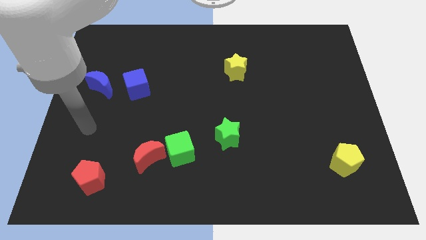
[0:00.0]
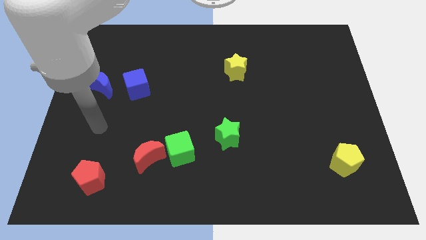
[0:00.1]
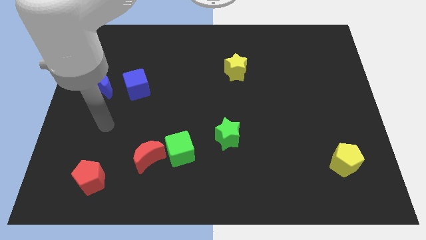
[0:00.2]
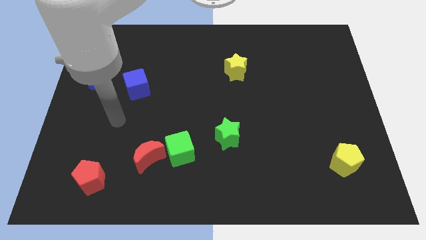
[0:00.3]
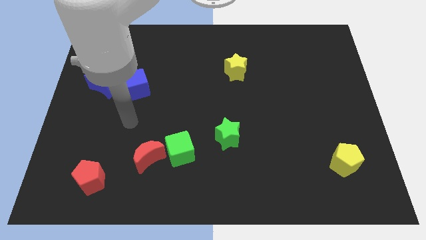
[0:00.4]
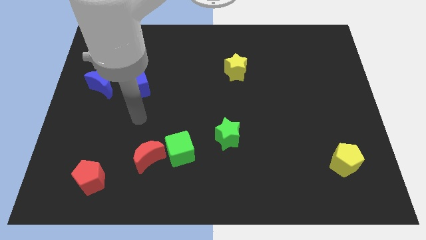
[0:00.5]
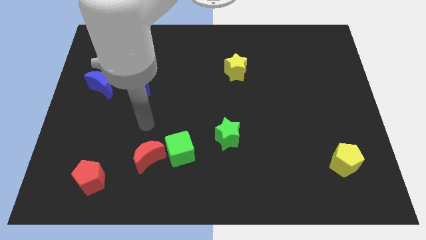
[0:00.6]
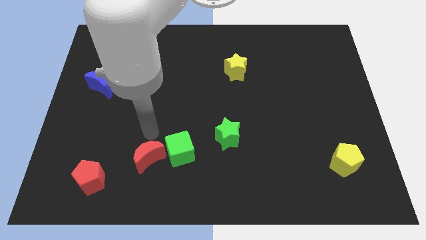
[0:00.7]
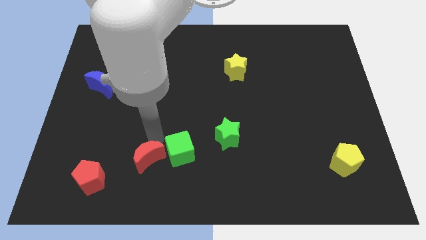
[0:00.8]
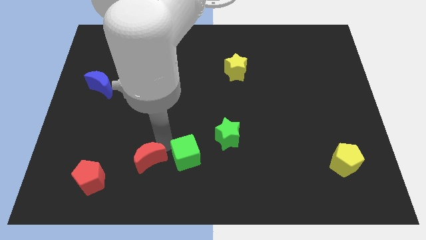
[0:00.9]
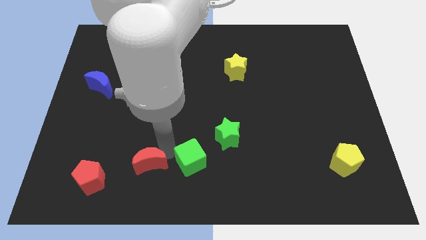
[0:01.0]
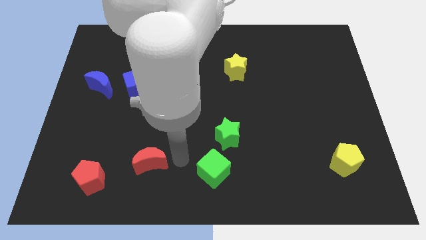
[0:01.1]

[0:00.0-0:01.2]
move the red moon away from the green cube

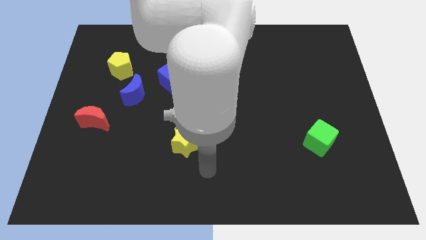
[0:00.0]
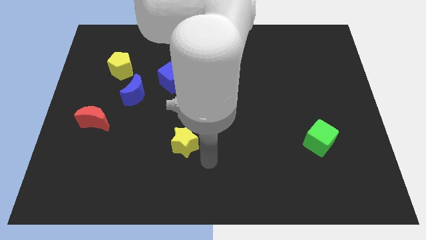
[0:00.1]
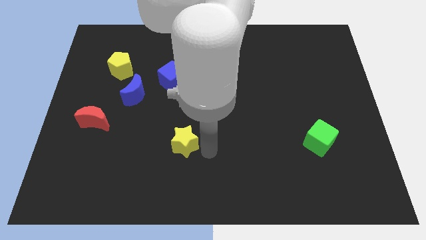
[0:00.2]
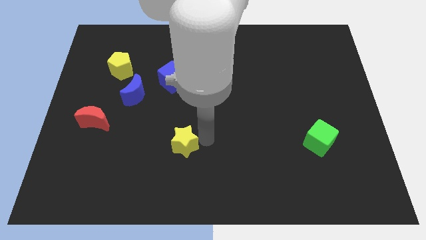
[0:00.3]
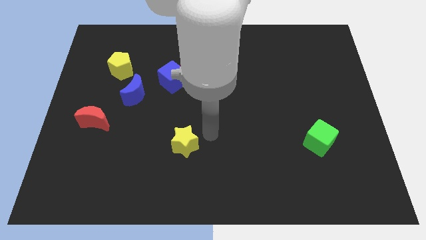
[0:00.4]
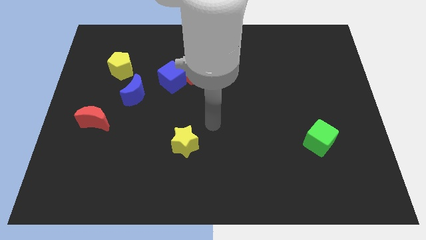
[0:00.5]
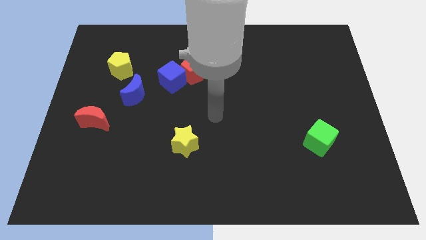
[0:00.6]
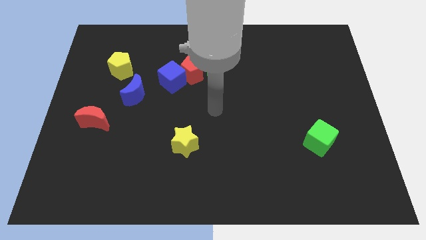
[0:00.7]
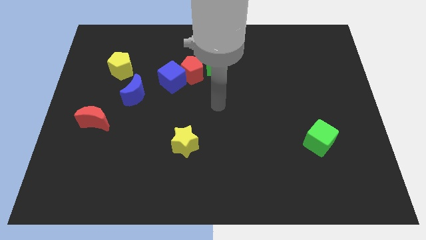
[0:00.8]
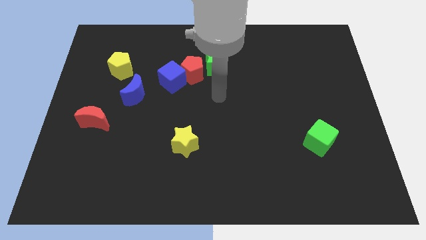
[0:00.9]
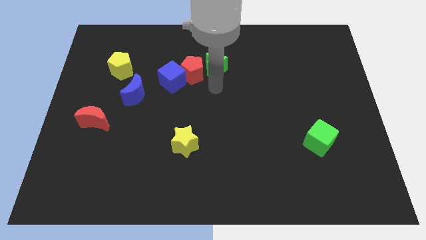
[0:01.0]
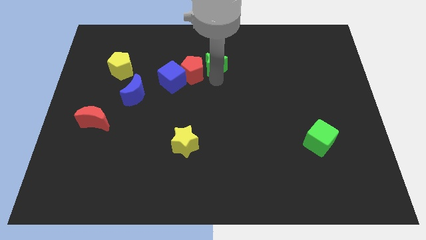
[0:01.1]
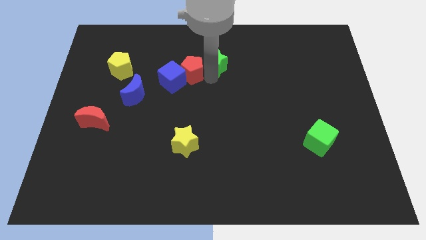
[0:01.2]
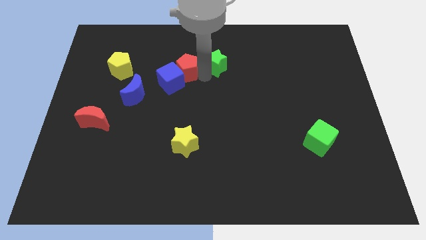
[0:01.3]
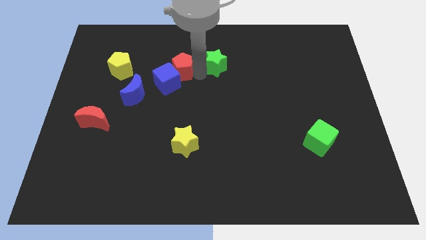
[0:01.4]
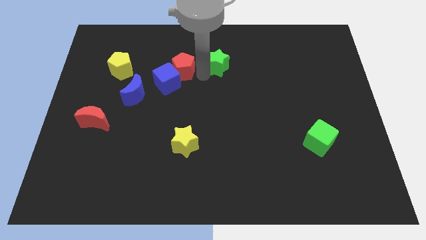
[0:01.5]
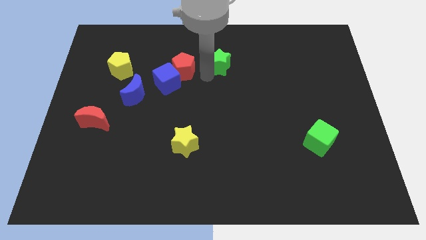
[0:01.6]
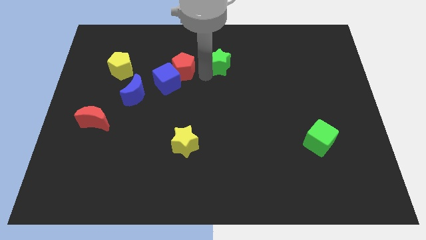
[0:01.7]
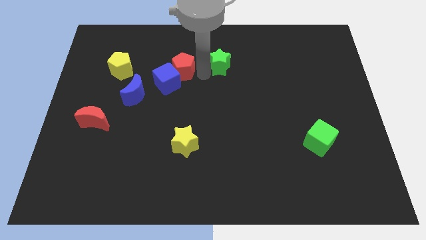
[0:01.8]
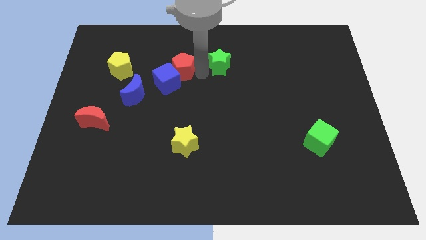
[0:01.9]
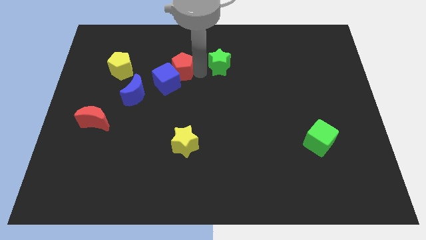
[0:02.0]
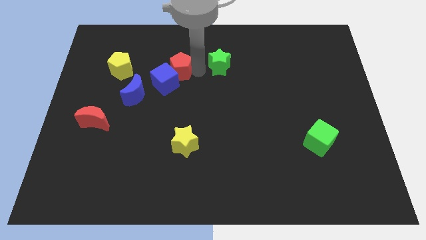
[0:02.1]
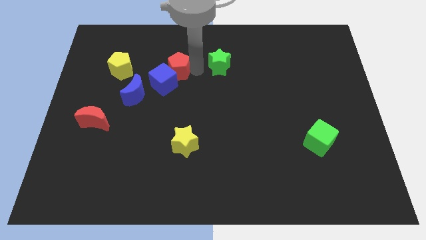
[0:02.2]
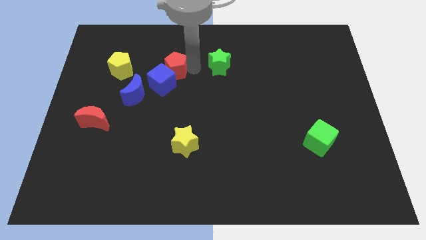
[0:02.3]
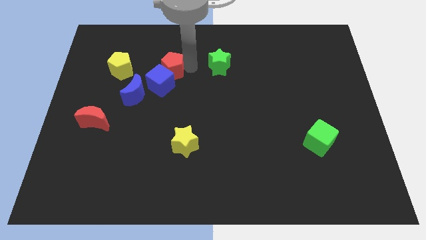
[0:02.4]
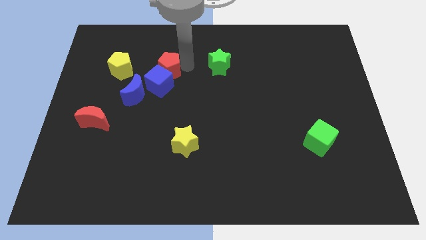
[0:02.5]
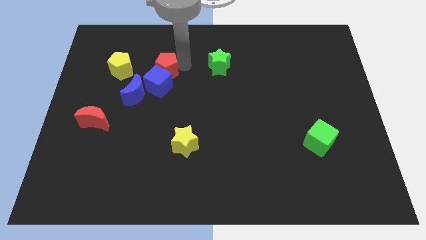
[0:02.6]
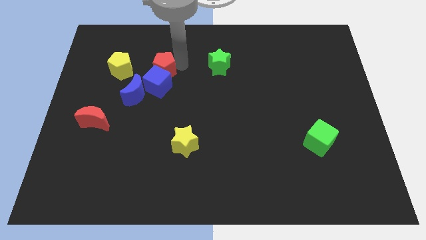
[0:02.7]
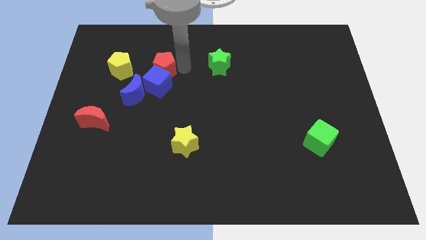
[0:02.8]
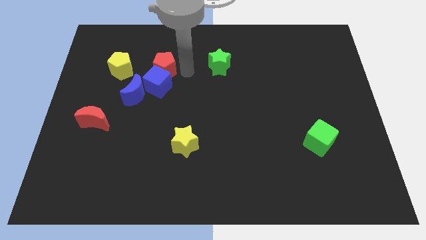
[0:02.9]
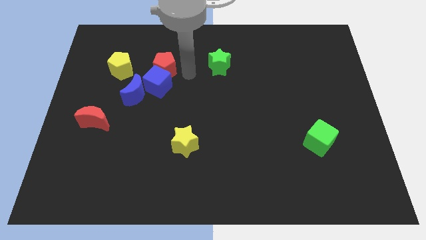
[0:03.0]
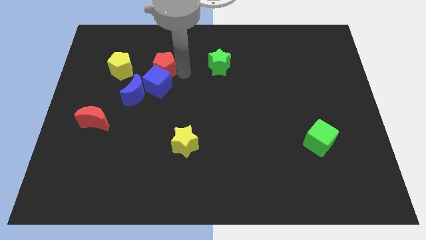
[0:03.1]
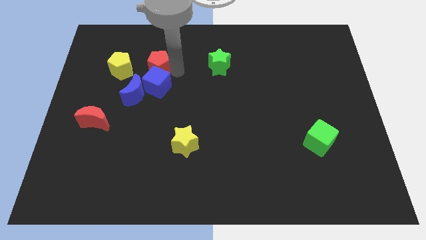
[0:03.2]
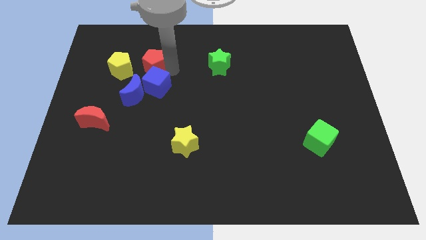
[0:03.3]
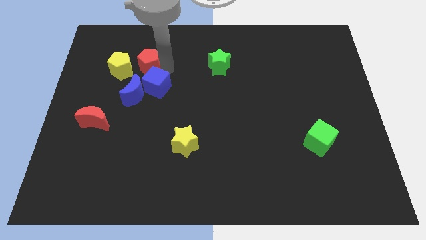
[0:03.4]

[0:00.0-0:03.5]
pull the red pentagon apart from the blue cube and green star

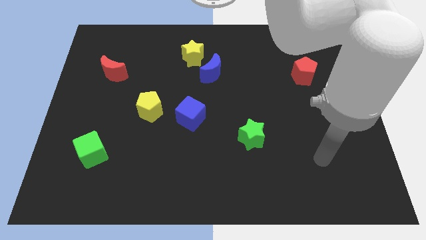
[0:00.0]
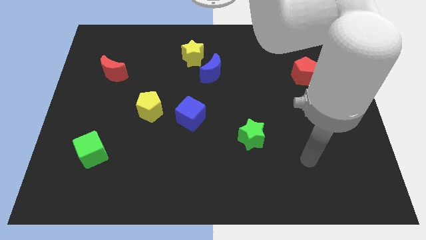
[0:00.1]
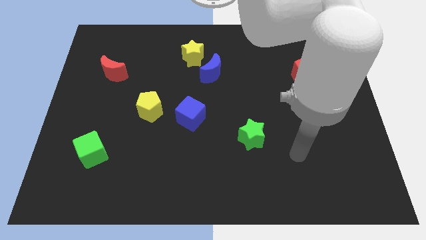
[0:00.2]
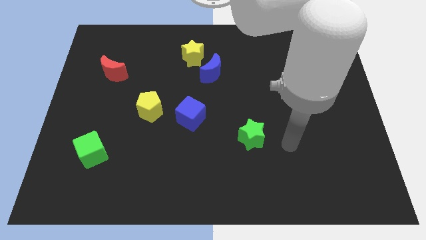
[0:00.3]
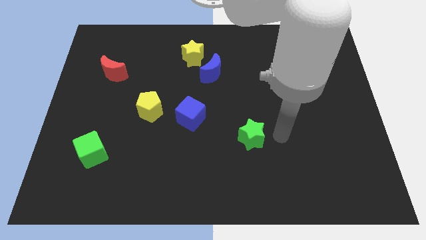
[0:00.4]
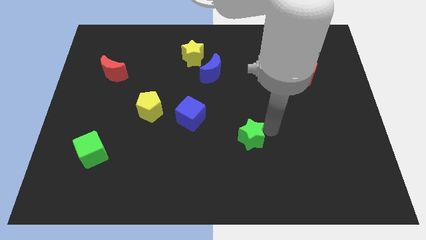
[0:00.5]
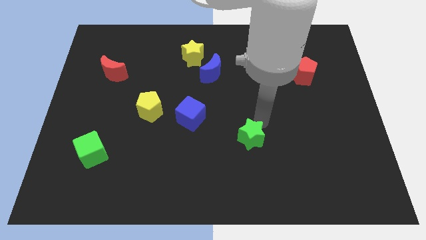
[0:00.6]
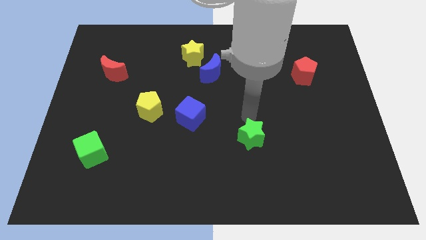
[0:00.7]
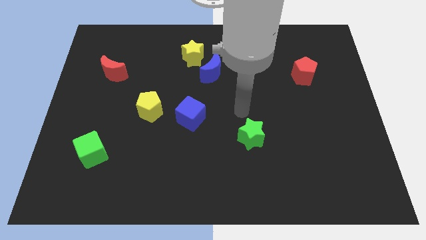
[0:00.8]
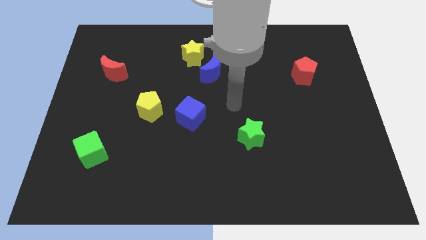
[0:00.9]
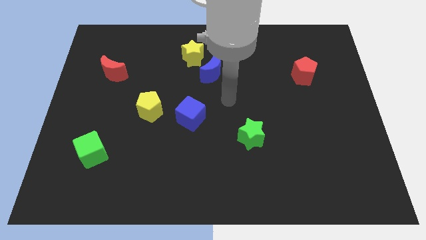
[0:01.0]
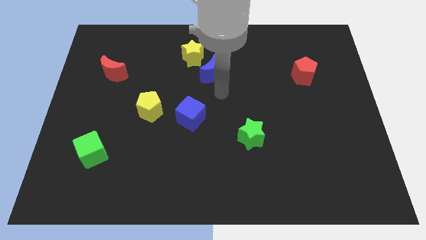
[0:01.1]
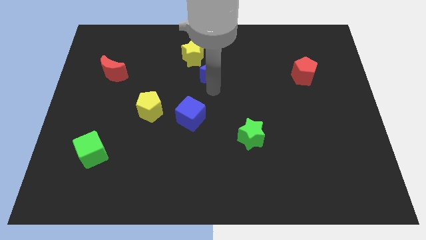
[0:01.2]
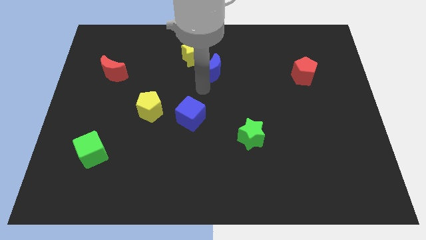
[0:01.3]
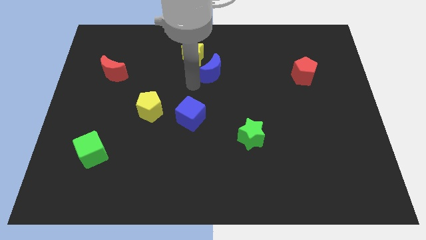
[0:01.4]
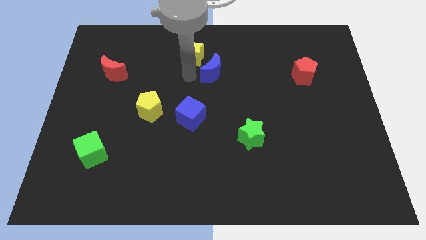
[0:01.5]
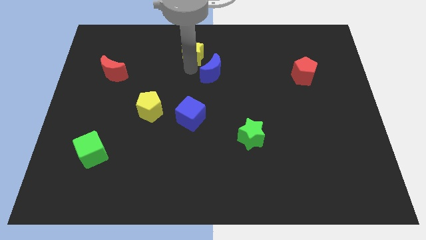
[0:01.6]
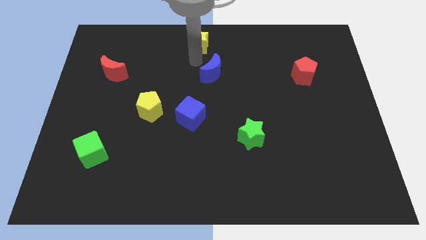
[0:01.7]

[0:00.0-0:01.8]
pull the blue moon apart from the yellow star

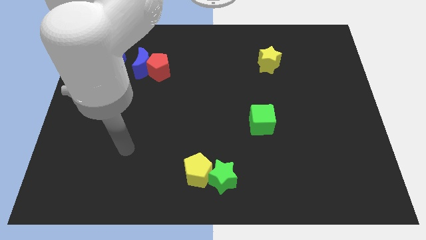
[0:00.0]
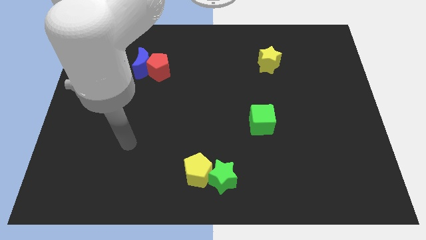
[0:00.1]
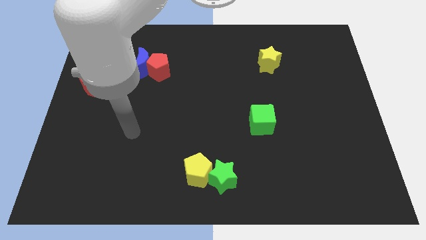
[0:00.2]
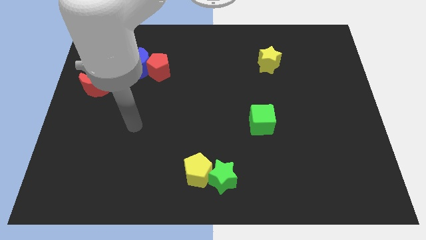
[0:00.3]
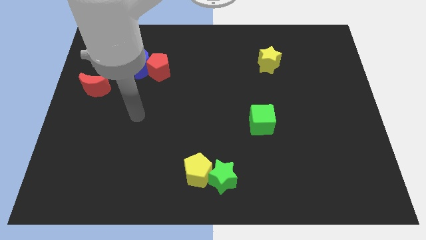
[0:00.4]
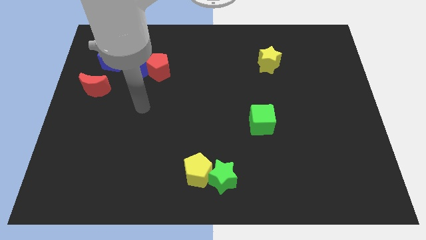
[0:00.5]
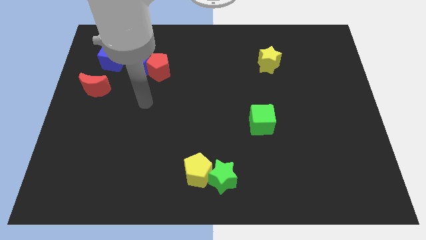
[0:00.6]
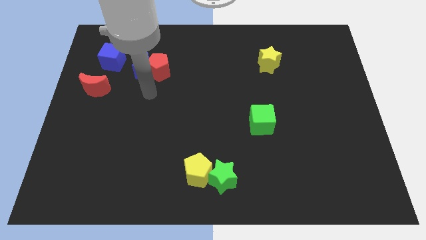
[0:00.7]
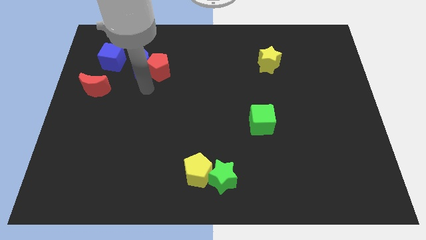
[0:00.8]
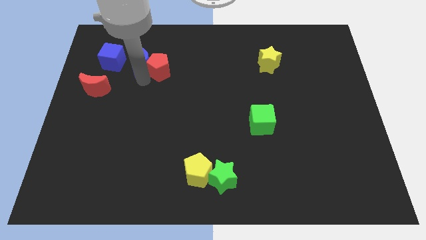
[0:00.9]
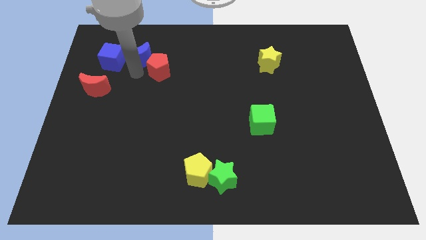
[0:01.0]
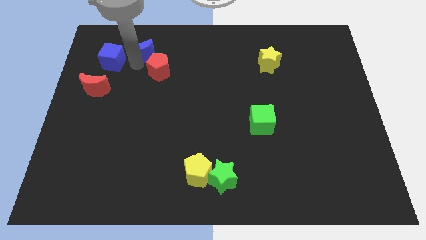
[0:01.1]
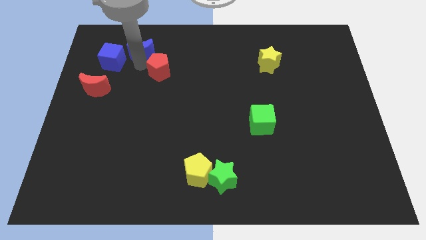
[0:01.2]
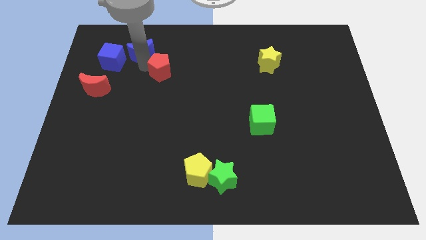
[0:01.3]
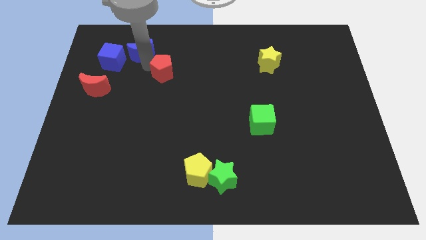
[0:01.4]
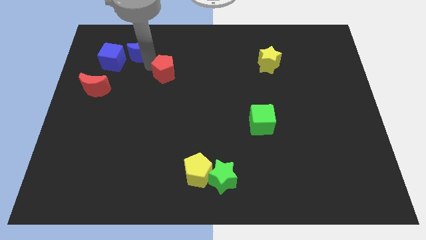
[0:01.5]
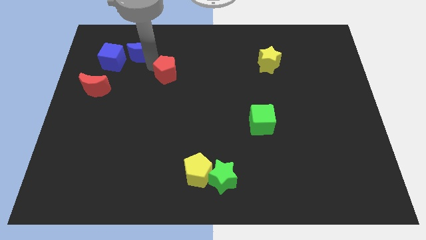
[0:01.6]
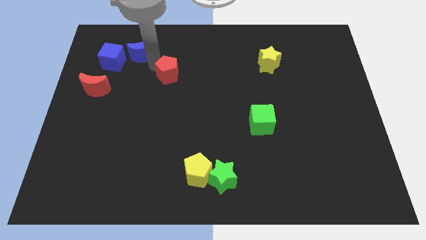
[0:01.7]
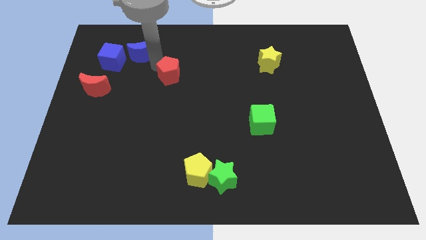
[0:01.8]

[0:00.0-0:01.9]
move the red pentagon away from the blue moon

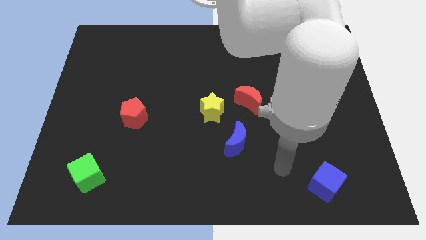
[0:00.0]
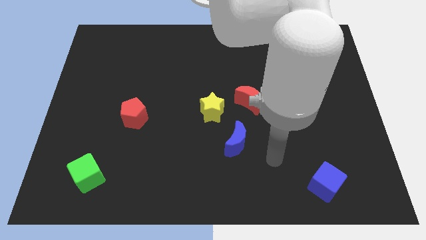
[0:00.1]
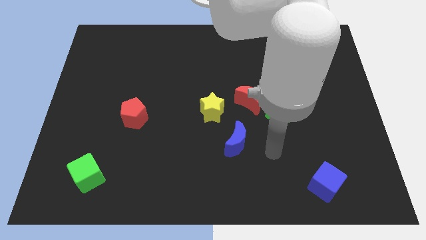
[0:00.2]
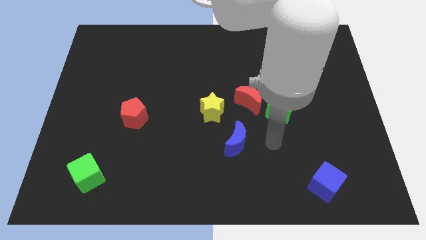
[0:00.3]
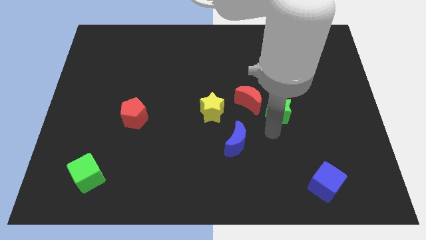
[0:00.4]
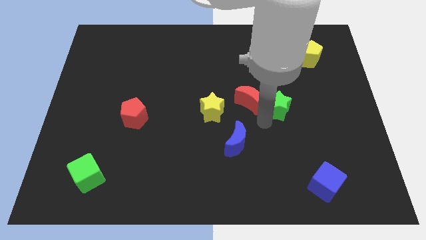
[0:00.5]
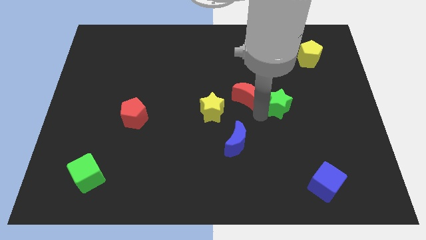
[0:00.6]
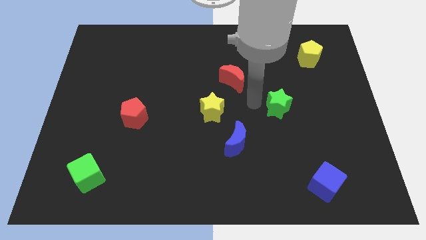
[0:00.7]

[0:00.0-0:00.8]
pull the green star apart from the red moon
